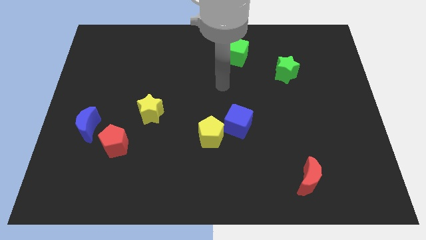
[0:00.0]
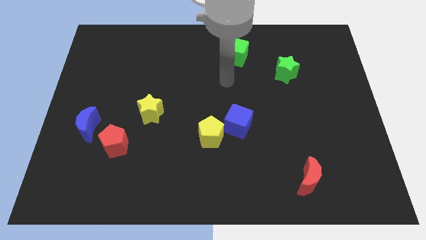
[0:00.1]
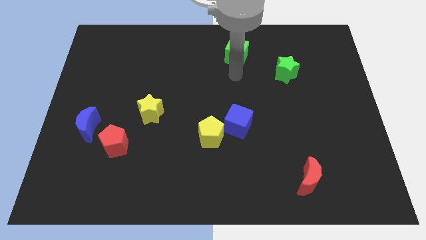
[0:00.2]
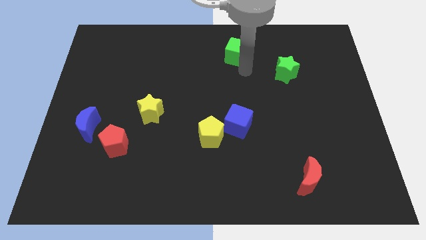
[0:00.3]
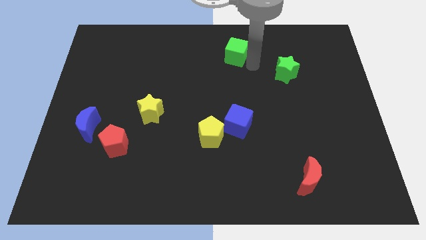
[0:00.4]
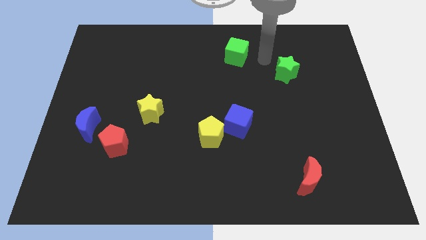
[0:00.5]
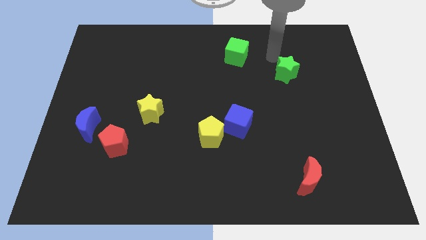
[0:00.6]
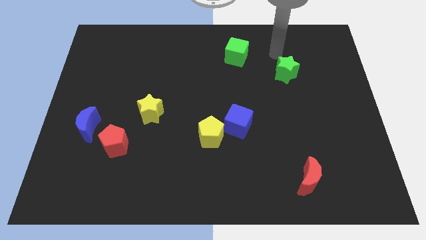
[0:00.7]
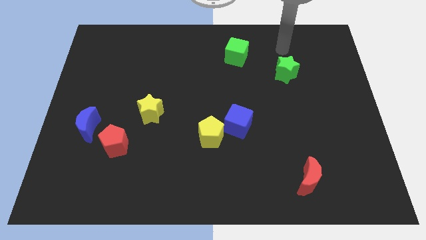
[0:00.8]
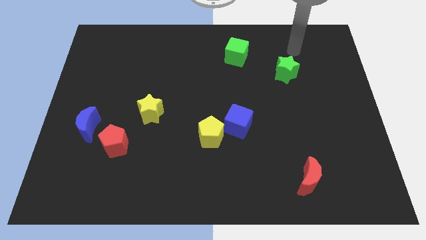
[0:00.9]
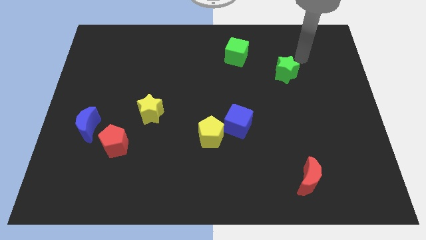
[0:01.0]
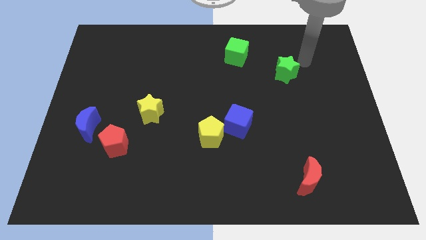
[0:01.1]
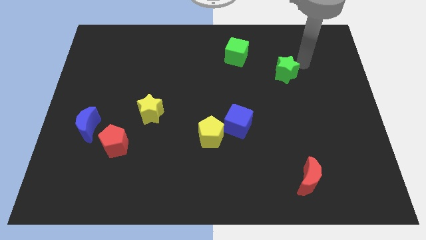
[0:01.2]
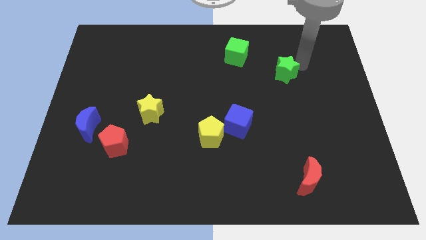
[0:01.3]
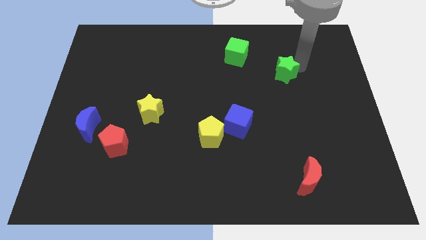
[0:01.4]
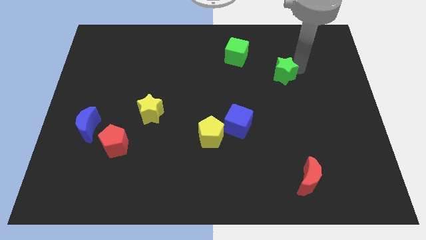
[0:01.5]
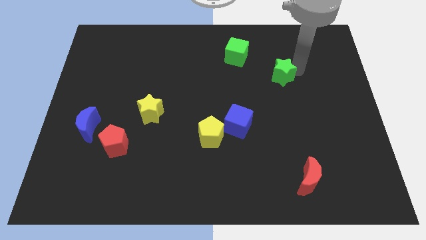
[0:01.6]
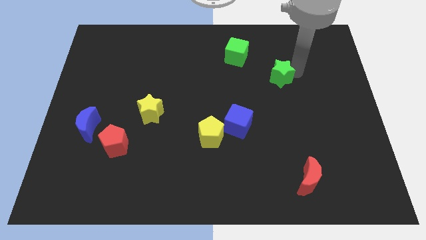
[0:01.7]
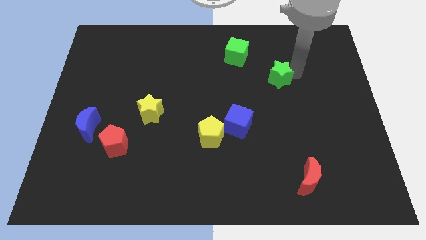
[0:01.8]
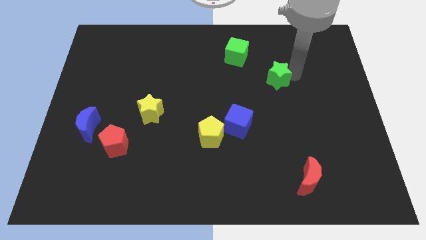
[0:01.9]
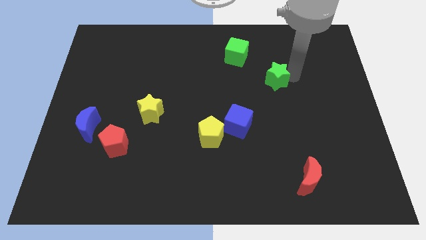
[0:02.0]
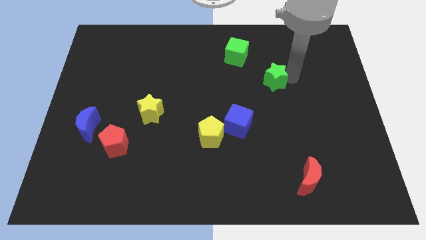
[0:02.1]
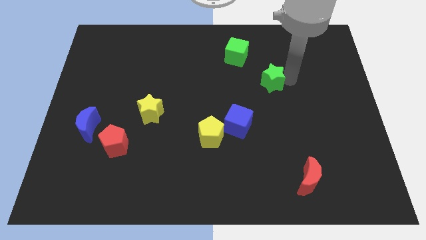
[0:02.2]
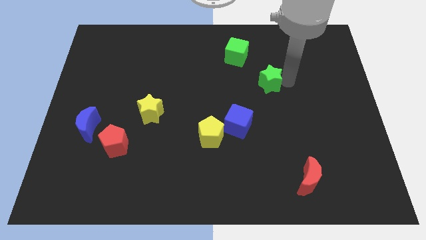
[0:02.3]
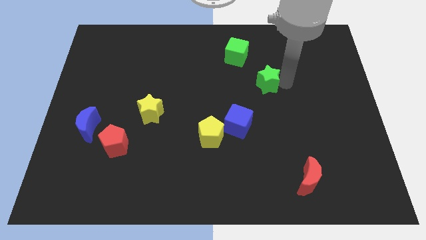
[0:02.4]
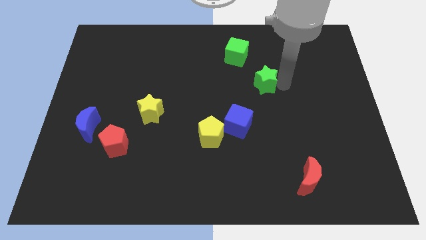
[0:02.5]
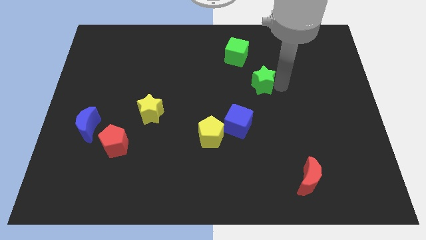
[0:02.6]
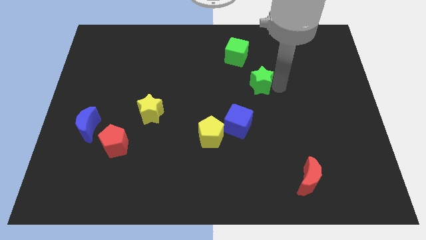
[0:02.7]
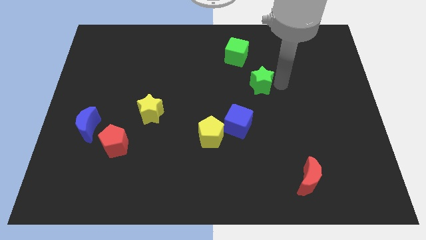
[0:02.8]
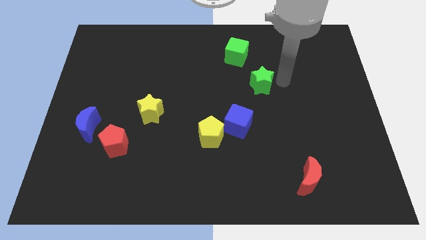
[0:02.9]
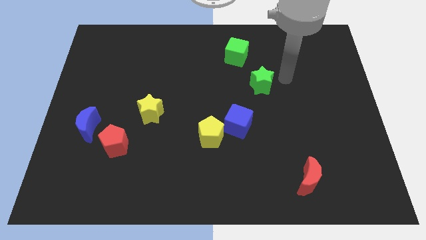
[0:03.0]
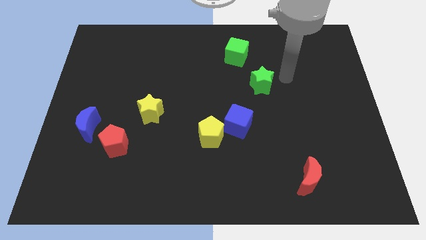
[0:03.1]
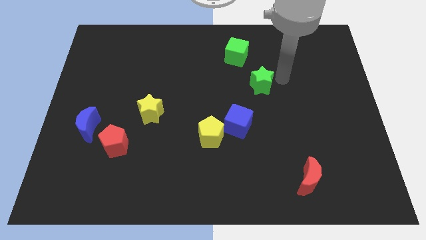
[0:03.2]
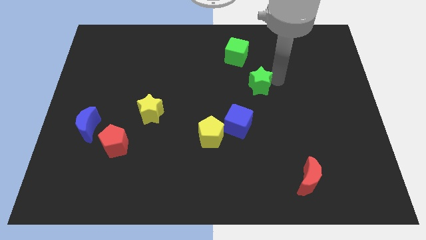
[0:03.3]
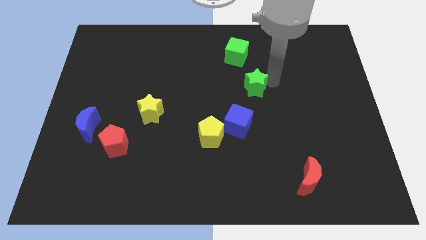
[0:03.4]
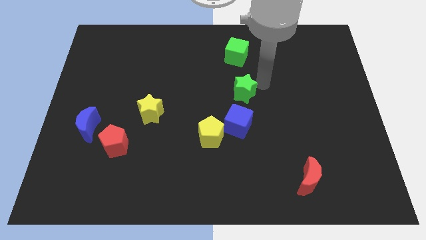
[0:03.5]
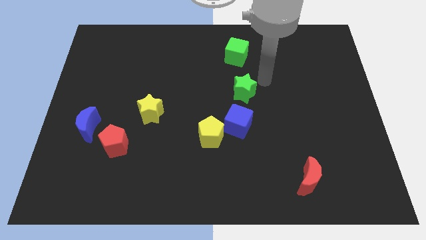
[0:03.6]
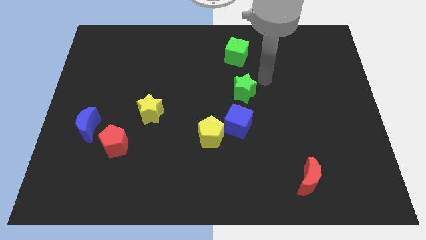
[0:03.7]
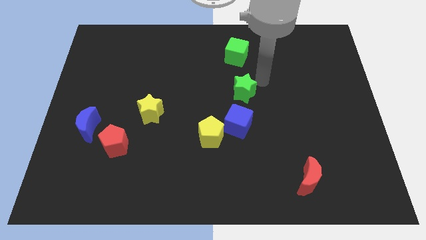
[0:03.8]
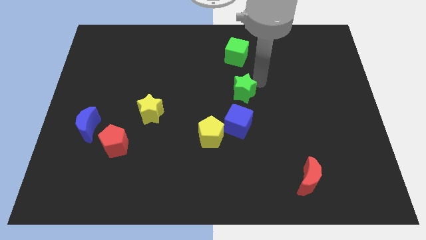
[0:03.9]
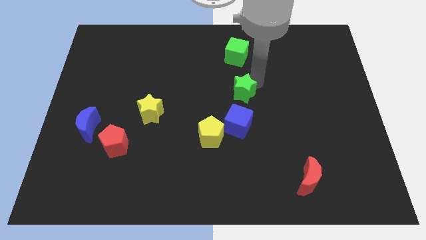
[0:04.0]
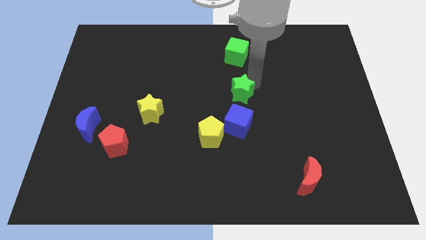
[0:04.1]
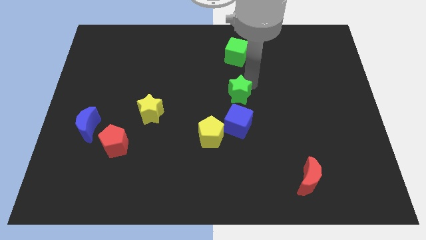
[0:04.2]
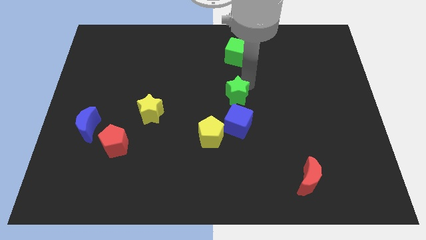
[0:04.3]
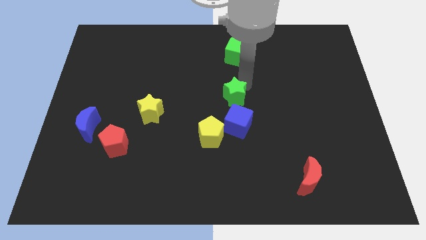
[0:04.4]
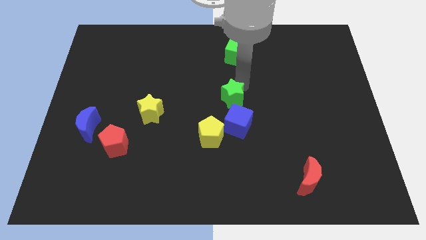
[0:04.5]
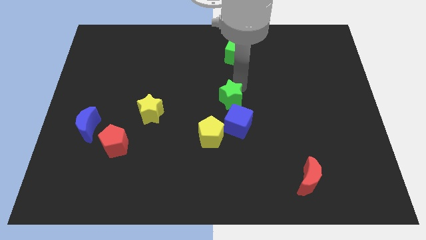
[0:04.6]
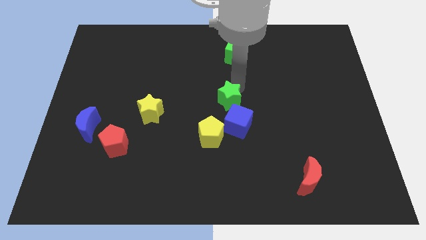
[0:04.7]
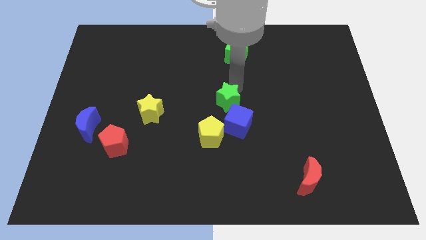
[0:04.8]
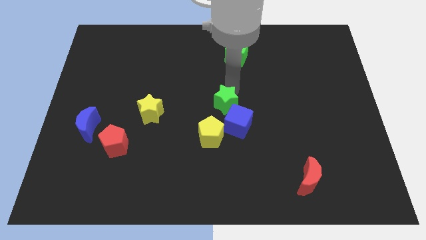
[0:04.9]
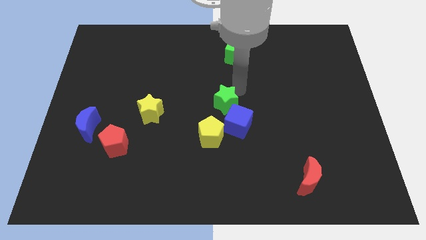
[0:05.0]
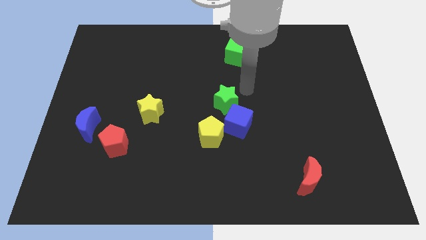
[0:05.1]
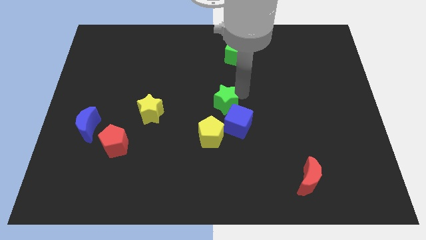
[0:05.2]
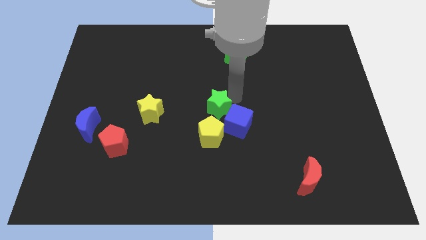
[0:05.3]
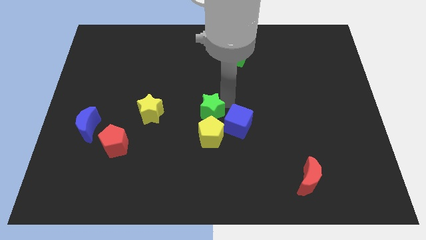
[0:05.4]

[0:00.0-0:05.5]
slide the green star to the left of the blue cube

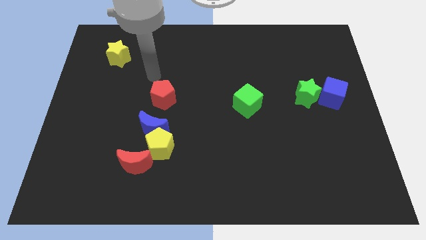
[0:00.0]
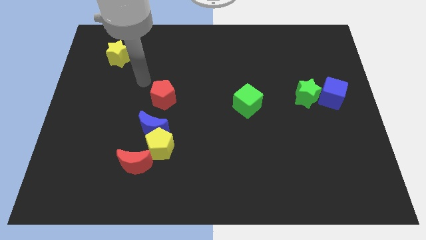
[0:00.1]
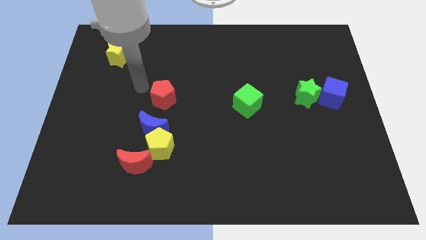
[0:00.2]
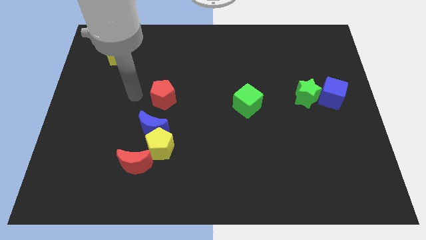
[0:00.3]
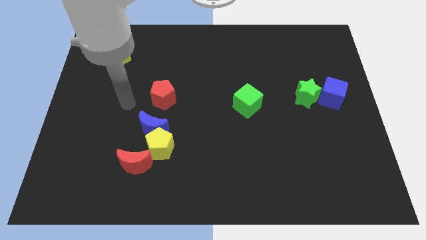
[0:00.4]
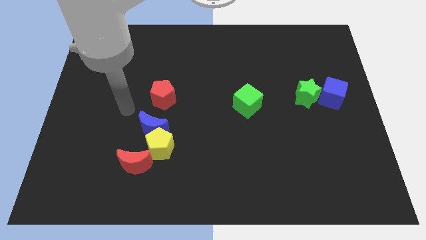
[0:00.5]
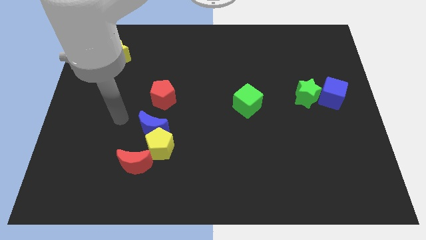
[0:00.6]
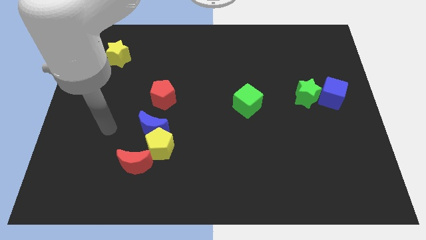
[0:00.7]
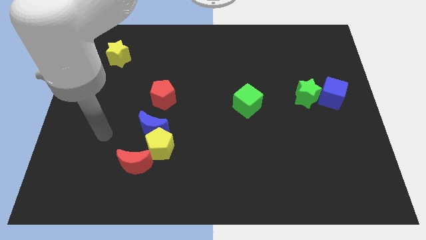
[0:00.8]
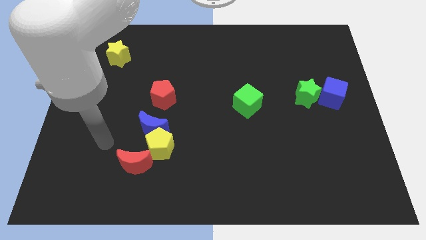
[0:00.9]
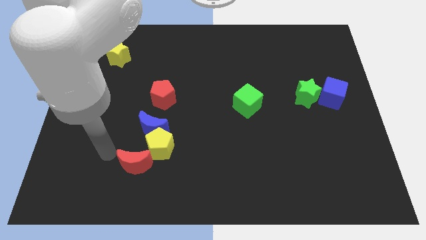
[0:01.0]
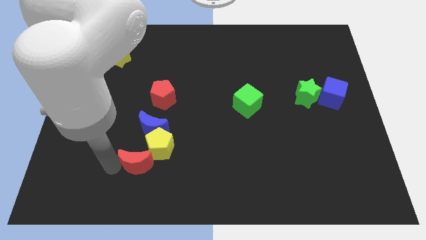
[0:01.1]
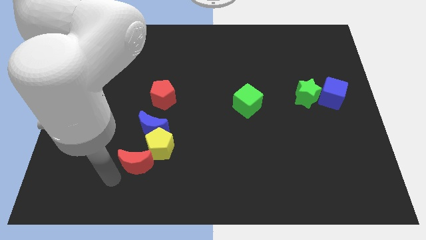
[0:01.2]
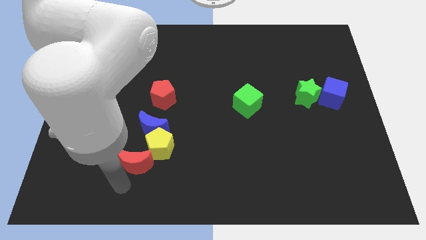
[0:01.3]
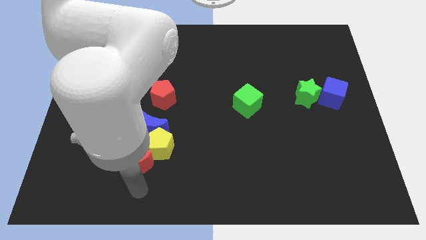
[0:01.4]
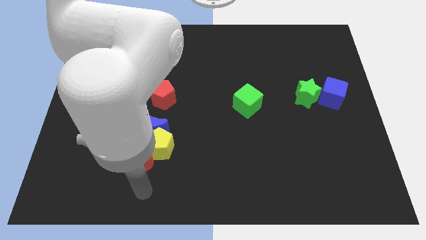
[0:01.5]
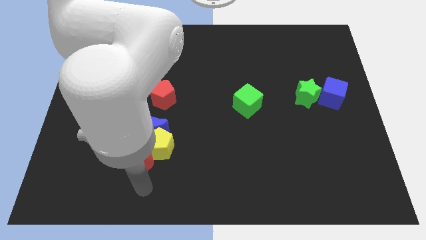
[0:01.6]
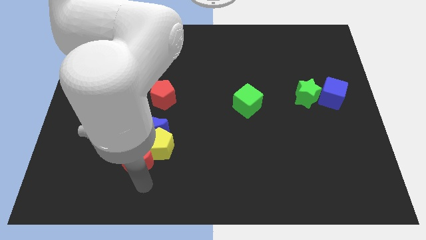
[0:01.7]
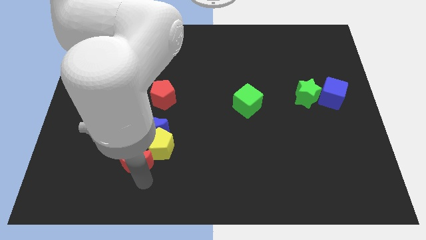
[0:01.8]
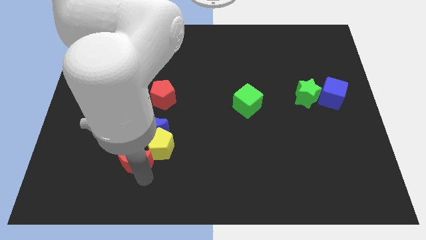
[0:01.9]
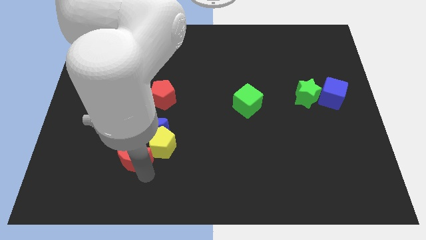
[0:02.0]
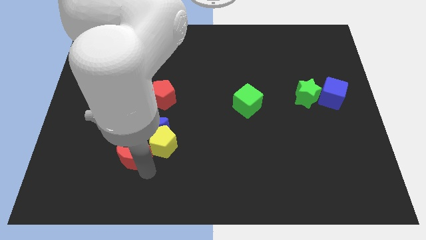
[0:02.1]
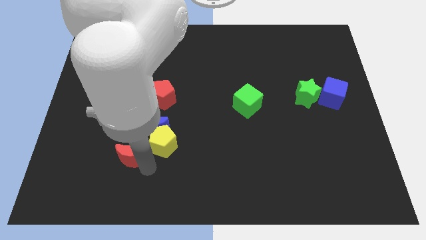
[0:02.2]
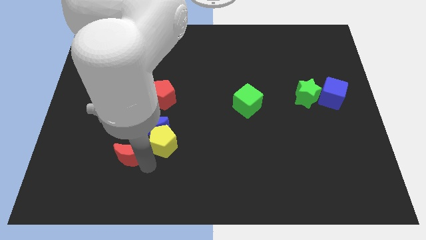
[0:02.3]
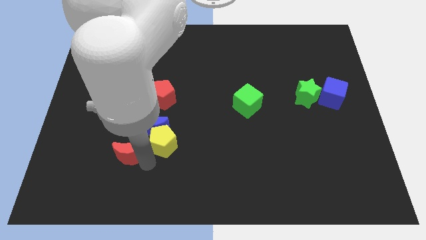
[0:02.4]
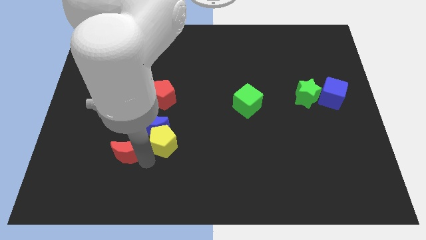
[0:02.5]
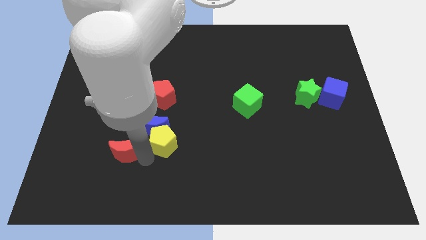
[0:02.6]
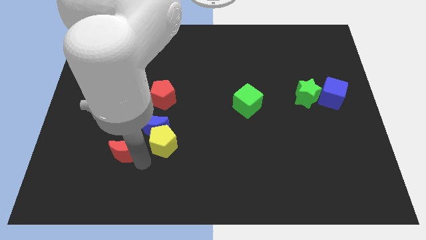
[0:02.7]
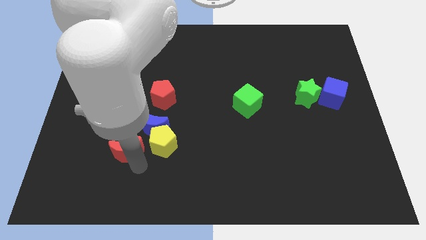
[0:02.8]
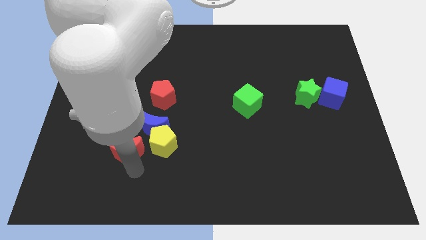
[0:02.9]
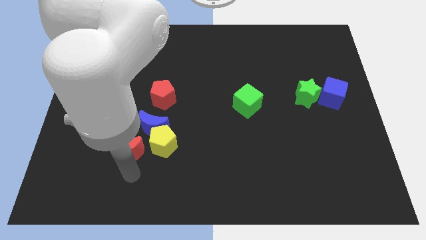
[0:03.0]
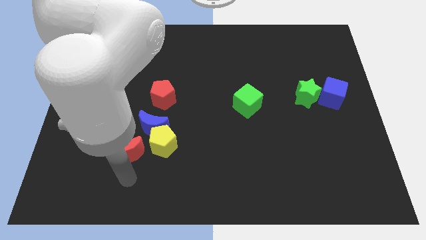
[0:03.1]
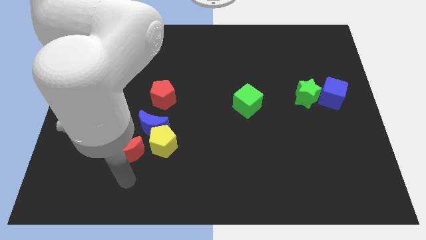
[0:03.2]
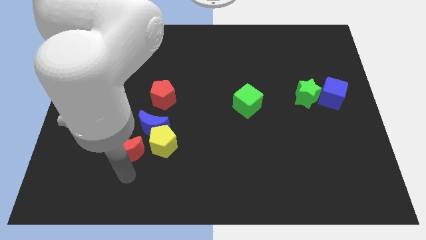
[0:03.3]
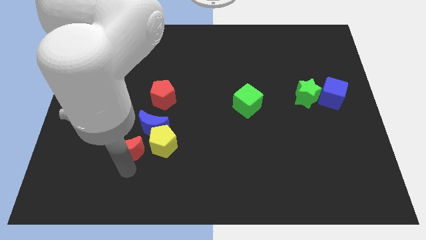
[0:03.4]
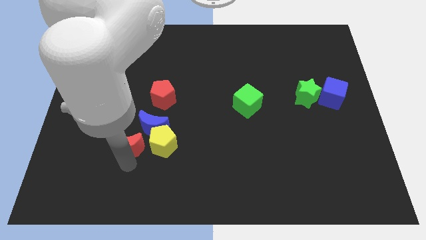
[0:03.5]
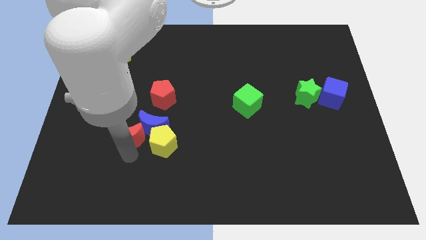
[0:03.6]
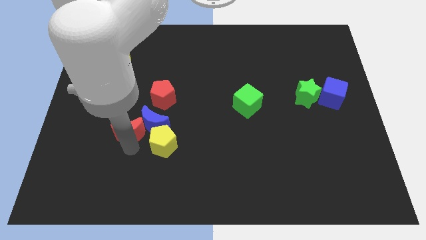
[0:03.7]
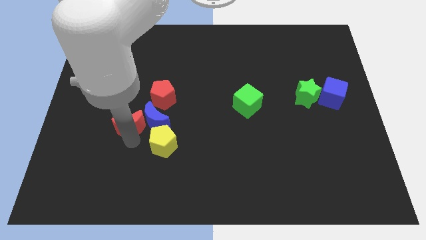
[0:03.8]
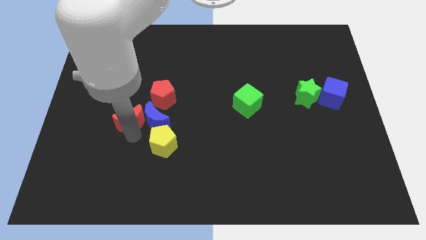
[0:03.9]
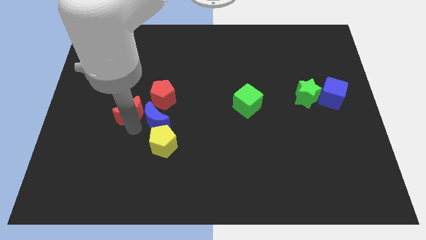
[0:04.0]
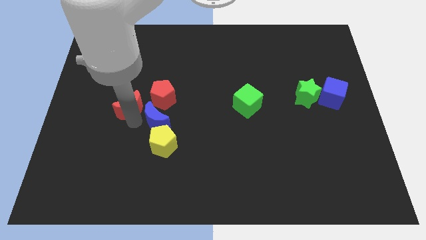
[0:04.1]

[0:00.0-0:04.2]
slide the red moon just left of the red pentagon
